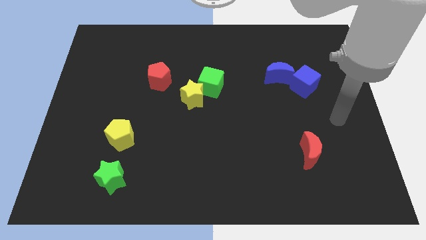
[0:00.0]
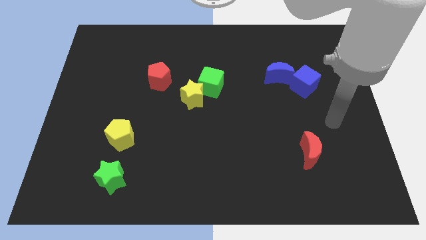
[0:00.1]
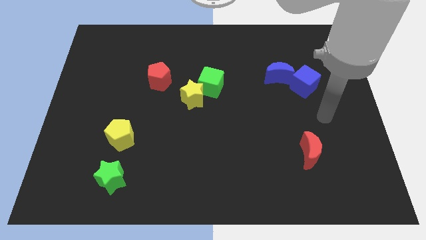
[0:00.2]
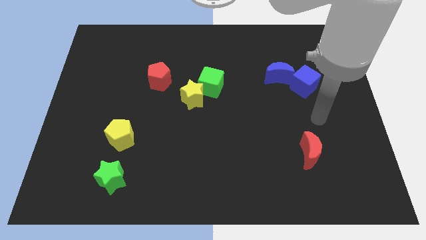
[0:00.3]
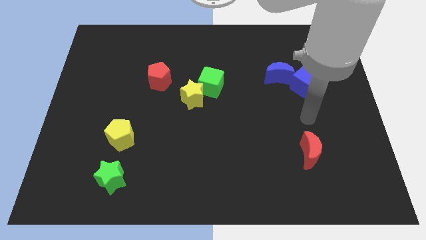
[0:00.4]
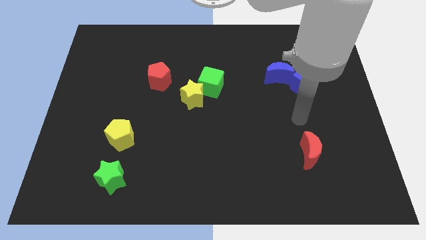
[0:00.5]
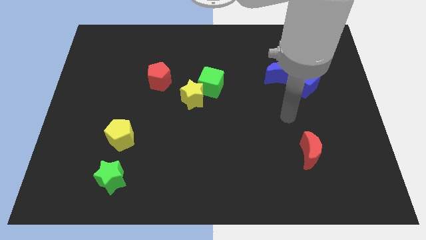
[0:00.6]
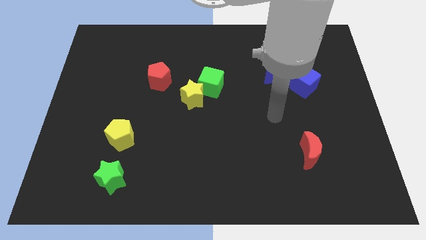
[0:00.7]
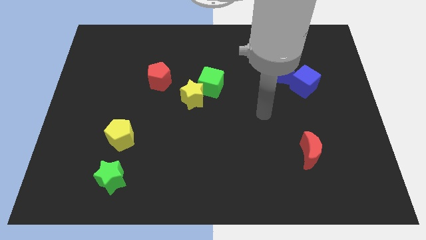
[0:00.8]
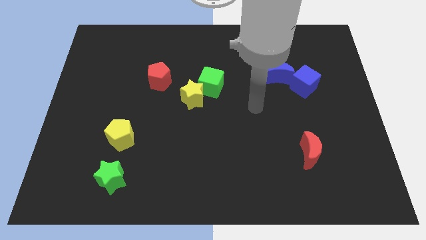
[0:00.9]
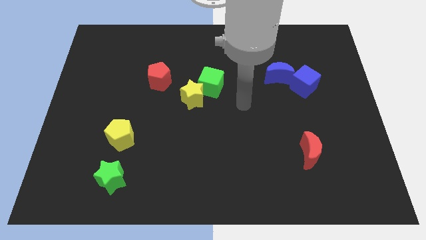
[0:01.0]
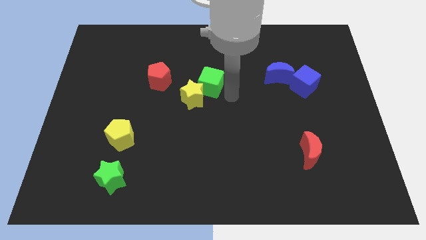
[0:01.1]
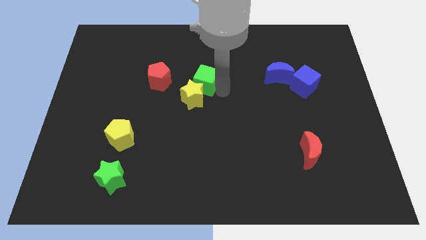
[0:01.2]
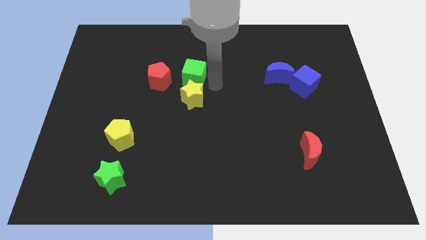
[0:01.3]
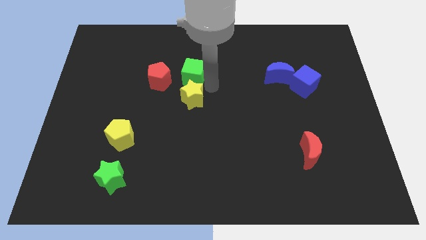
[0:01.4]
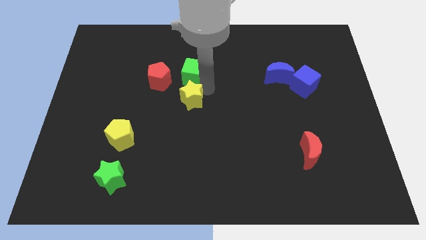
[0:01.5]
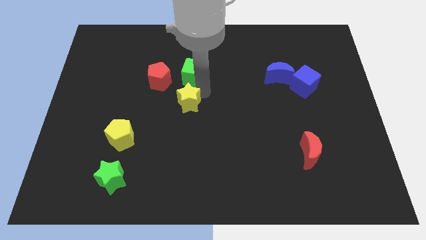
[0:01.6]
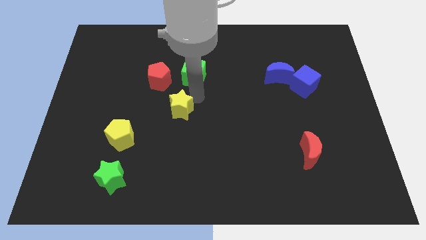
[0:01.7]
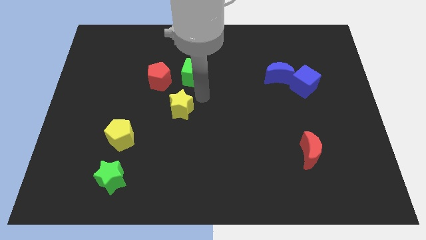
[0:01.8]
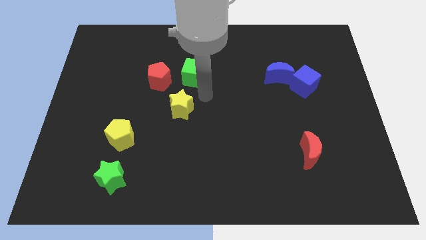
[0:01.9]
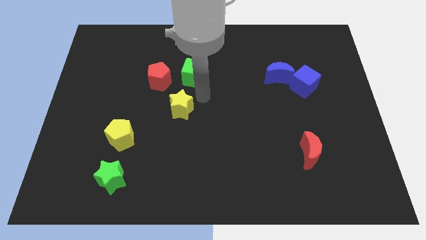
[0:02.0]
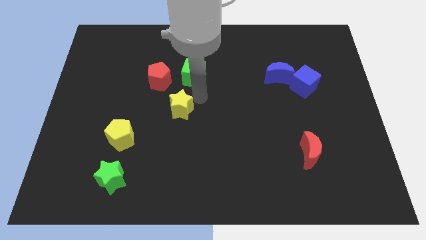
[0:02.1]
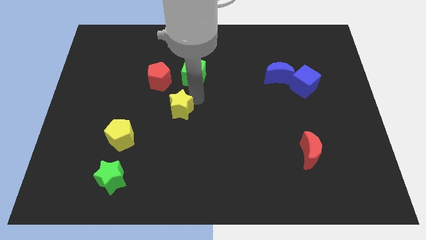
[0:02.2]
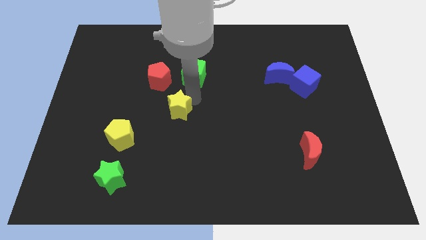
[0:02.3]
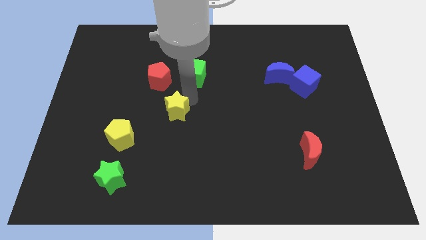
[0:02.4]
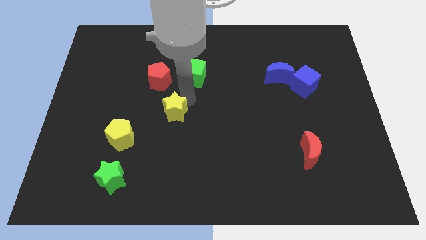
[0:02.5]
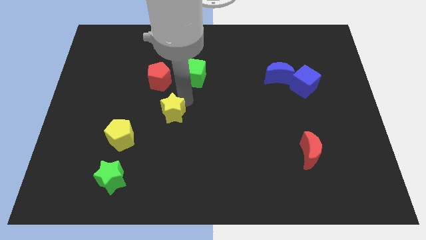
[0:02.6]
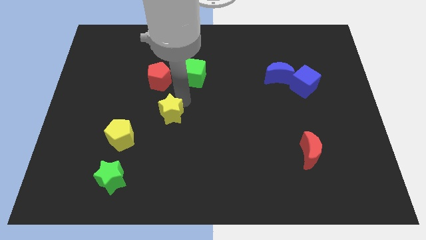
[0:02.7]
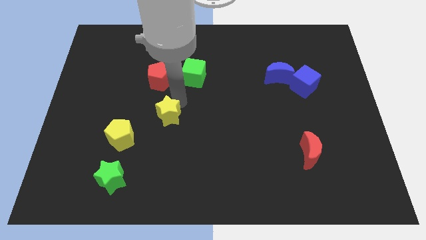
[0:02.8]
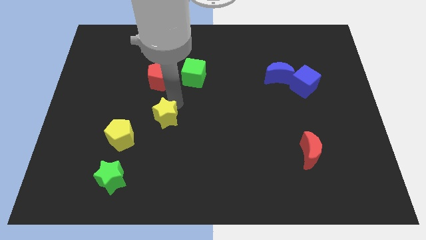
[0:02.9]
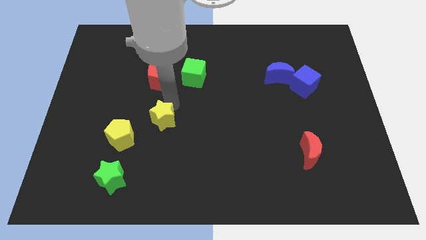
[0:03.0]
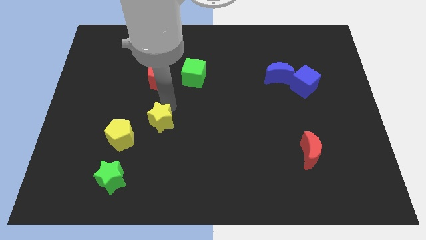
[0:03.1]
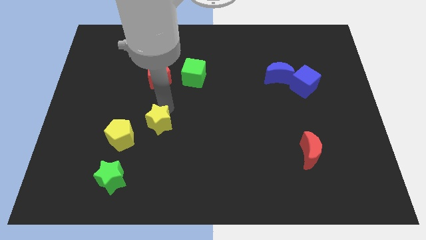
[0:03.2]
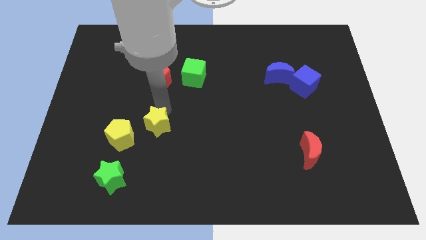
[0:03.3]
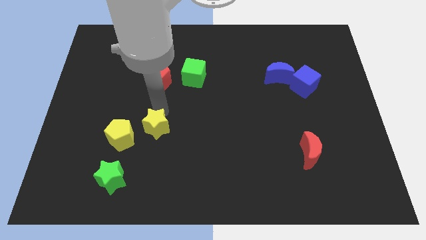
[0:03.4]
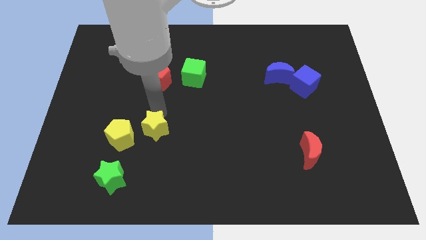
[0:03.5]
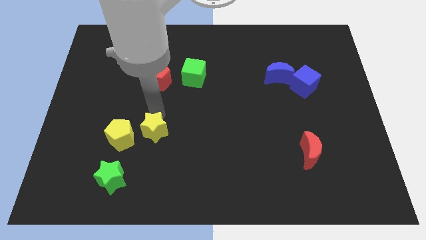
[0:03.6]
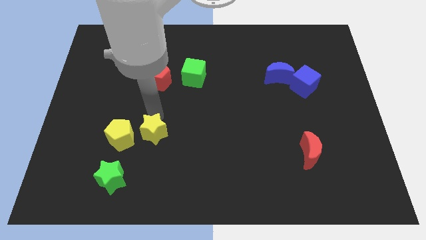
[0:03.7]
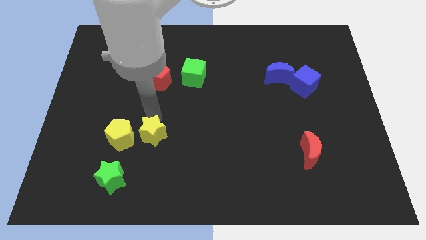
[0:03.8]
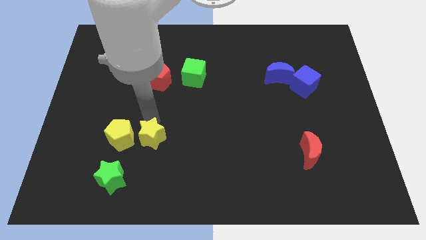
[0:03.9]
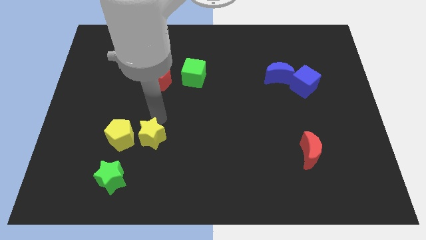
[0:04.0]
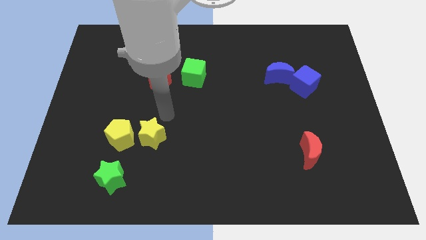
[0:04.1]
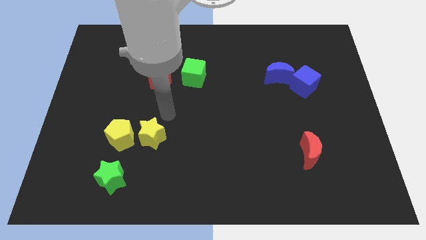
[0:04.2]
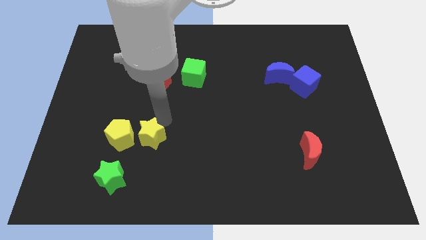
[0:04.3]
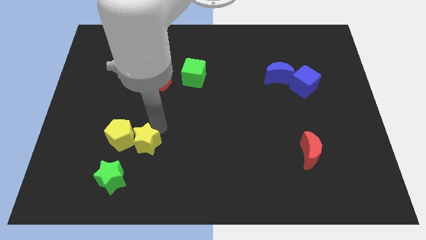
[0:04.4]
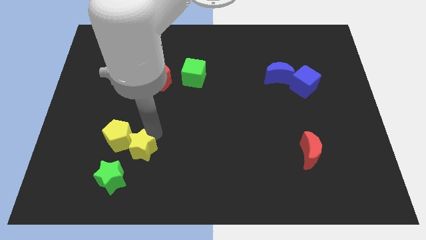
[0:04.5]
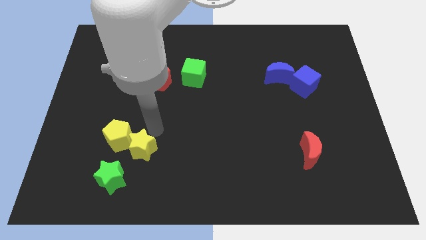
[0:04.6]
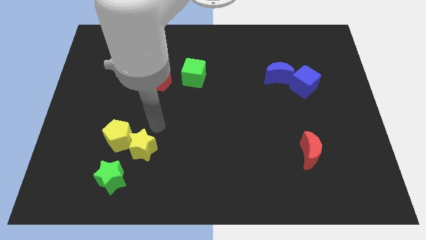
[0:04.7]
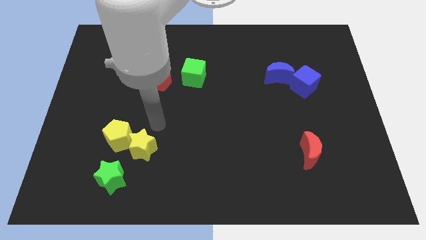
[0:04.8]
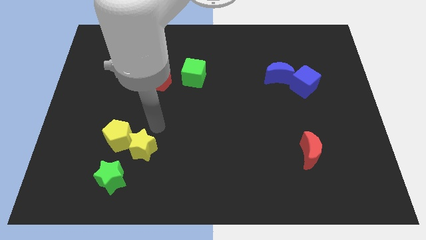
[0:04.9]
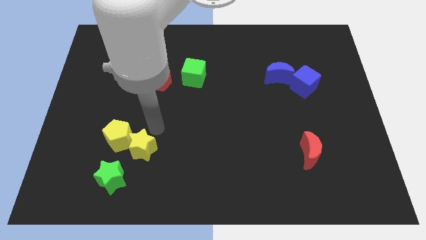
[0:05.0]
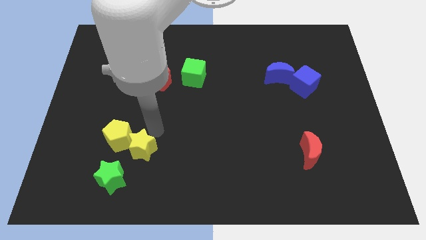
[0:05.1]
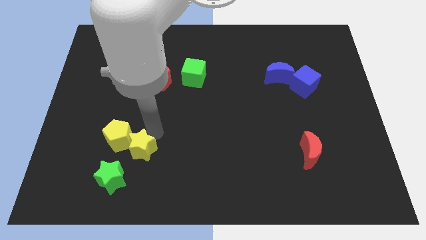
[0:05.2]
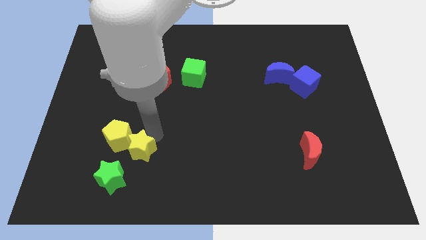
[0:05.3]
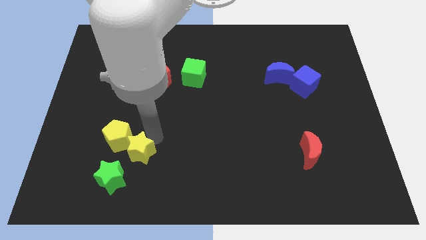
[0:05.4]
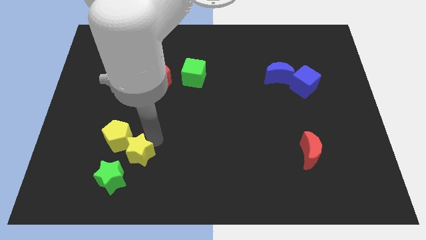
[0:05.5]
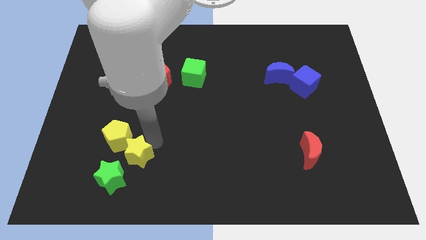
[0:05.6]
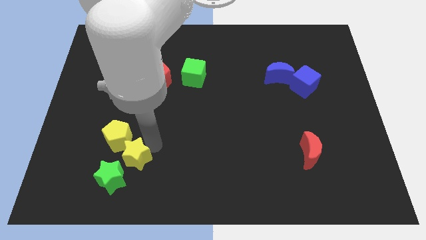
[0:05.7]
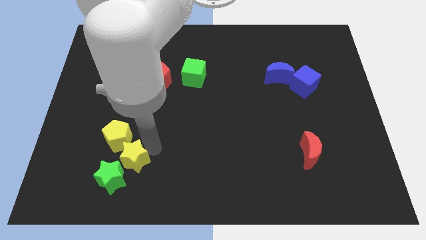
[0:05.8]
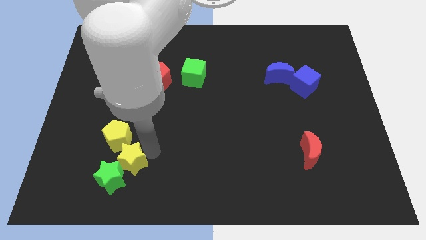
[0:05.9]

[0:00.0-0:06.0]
push the yellow star to the green star
